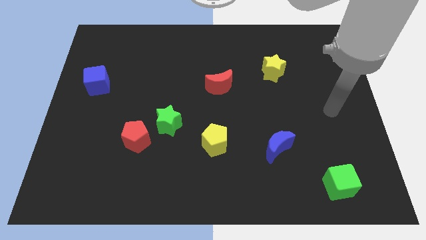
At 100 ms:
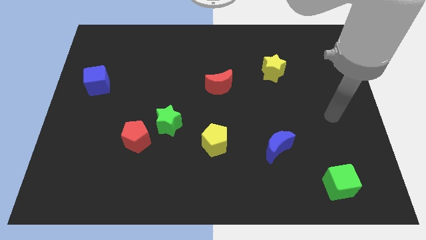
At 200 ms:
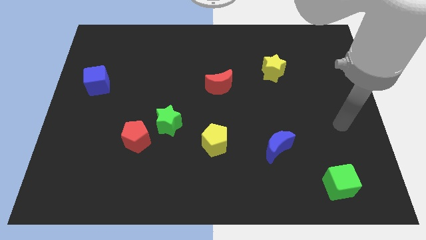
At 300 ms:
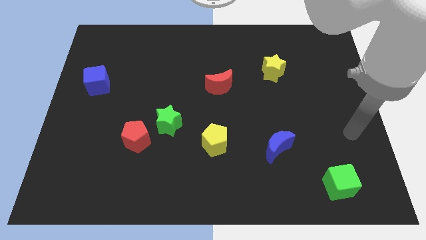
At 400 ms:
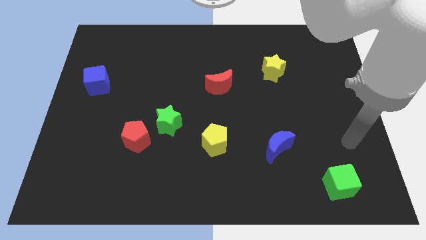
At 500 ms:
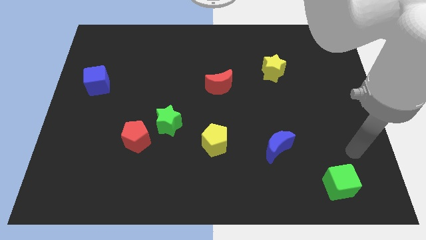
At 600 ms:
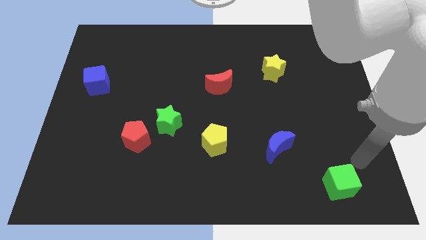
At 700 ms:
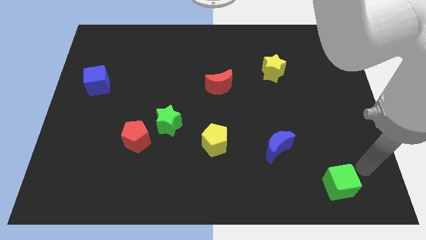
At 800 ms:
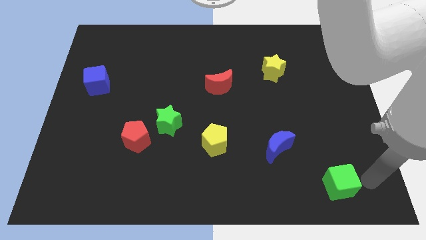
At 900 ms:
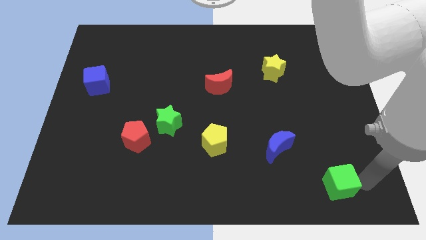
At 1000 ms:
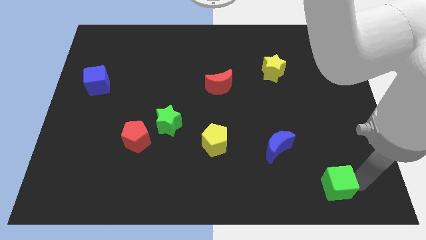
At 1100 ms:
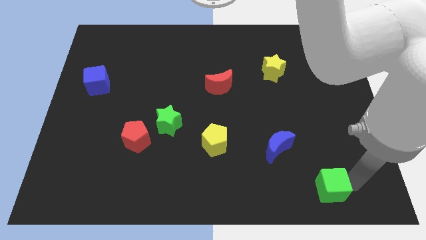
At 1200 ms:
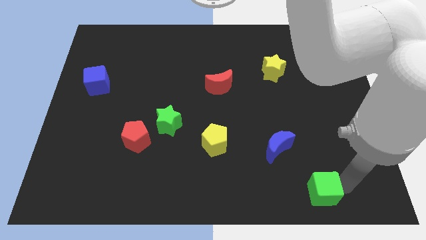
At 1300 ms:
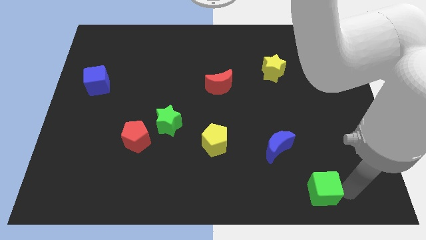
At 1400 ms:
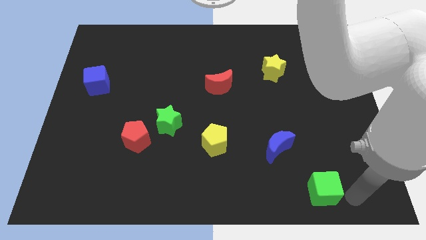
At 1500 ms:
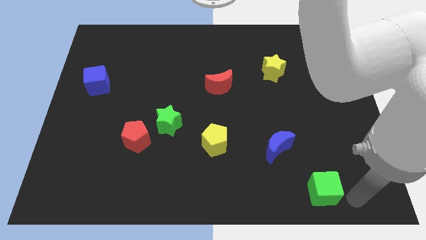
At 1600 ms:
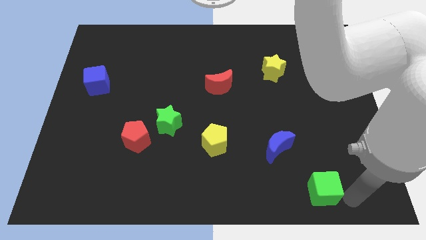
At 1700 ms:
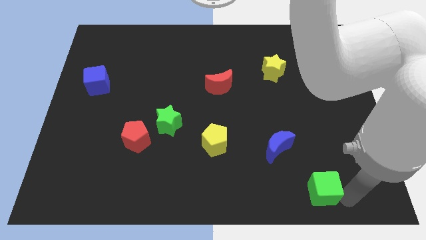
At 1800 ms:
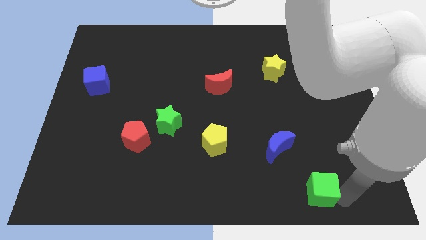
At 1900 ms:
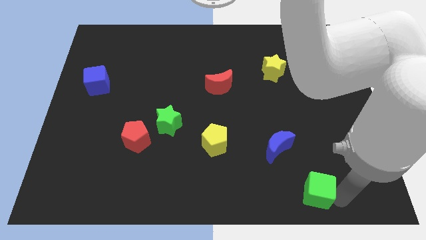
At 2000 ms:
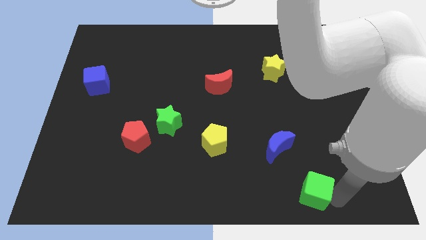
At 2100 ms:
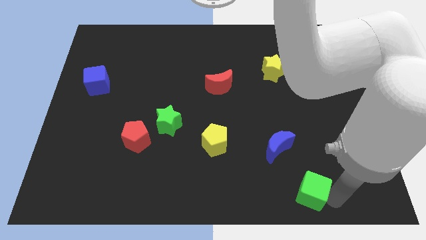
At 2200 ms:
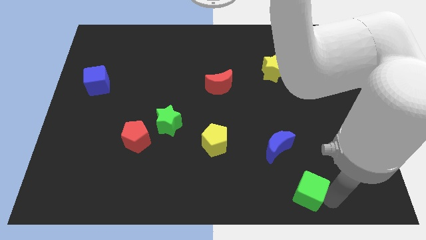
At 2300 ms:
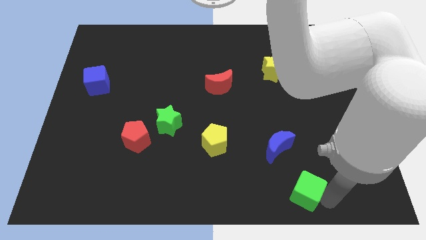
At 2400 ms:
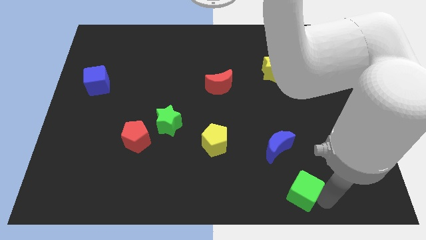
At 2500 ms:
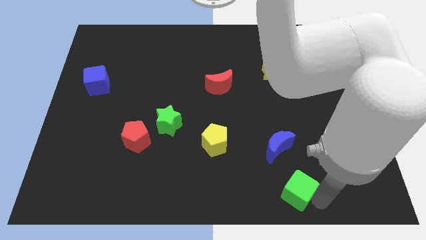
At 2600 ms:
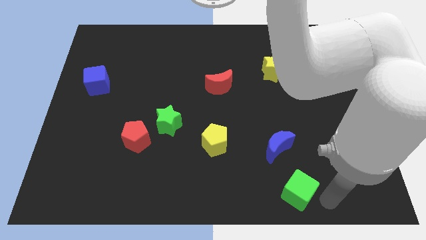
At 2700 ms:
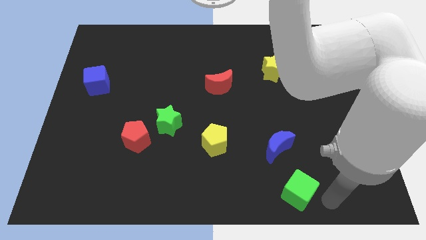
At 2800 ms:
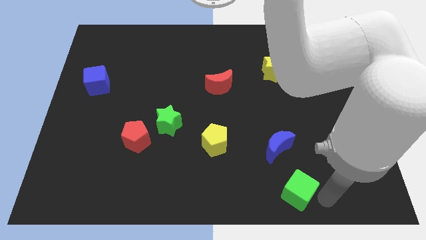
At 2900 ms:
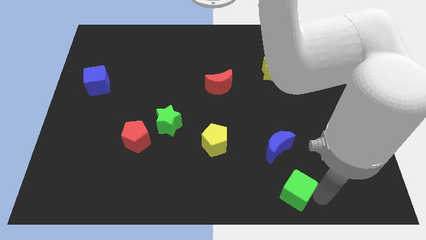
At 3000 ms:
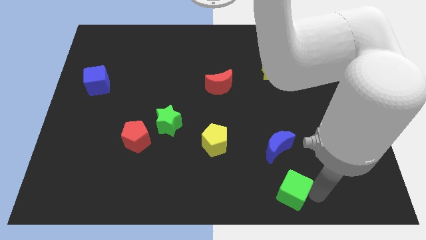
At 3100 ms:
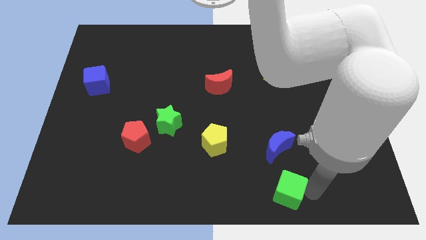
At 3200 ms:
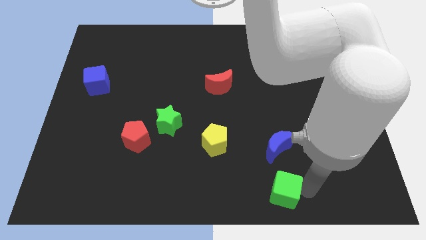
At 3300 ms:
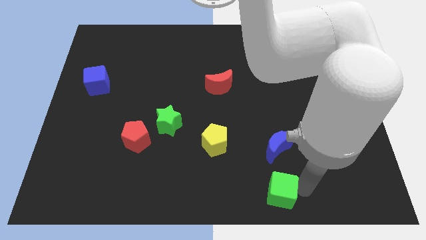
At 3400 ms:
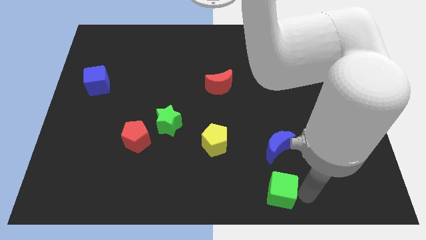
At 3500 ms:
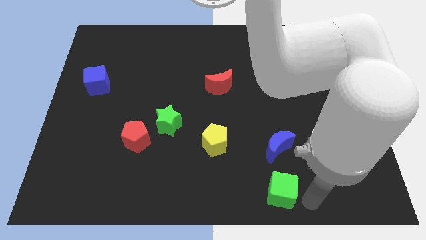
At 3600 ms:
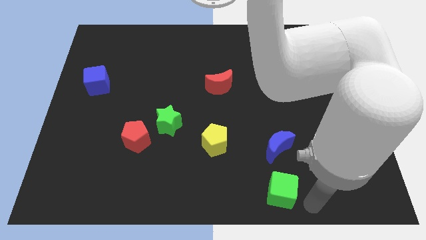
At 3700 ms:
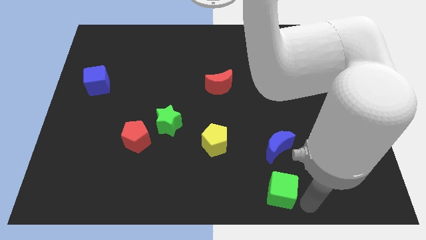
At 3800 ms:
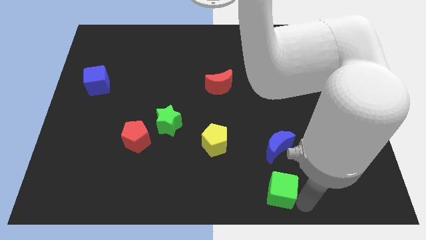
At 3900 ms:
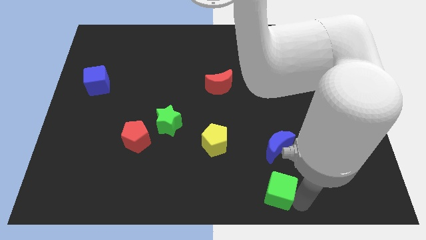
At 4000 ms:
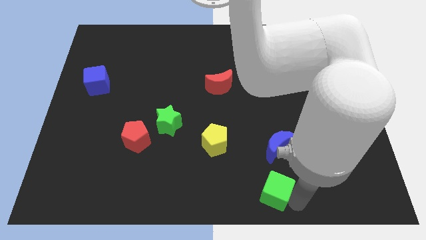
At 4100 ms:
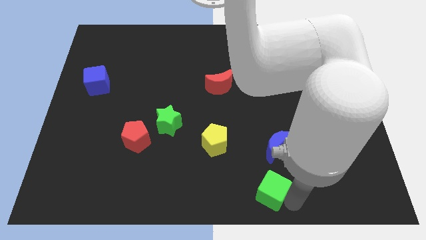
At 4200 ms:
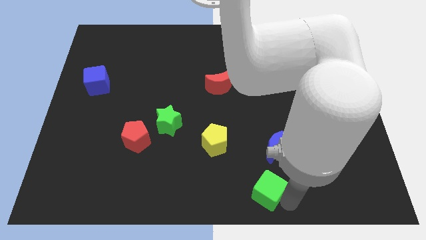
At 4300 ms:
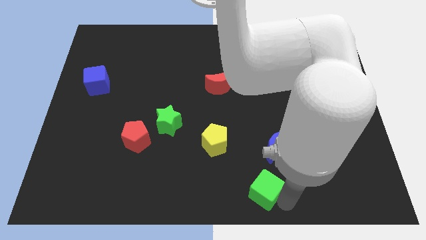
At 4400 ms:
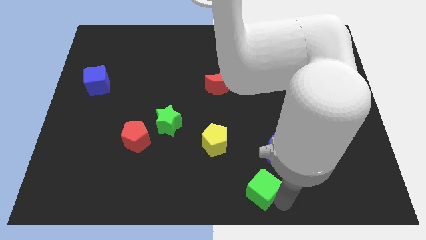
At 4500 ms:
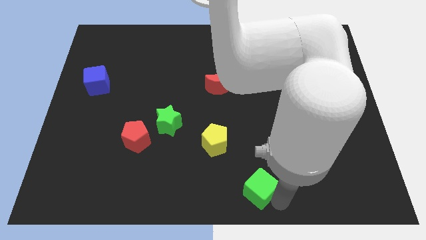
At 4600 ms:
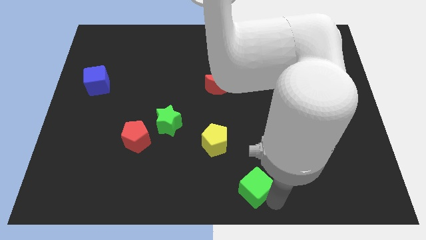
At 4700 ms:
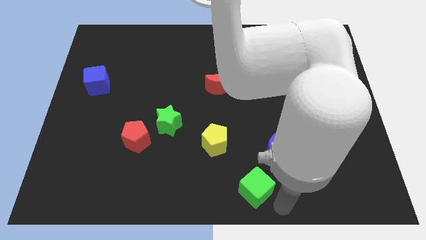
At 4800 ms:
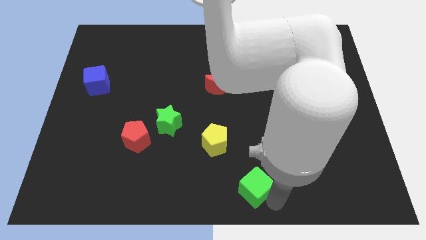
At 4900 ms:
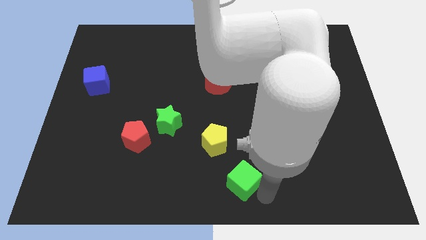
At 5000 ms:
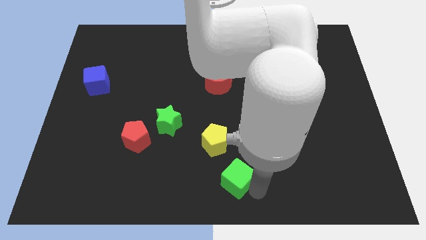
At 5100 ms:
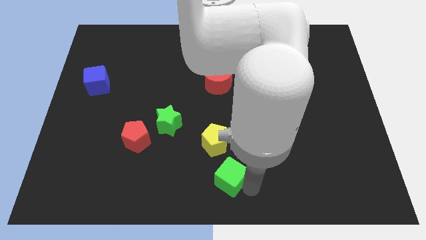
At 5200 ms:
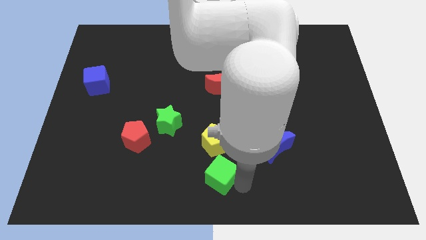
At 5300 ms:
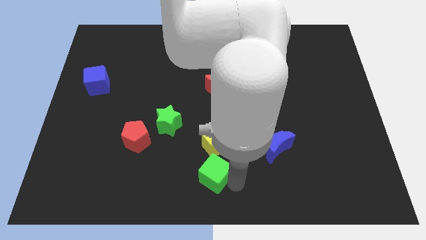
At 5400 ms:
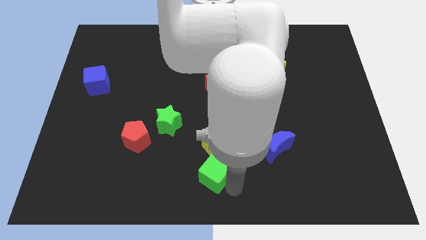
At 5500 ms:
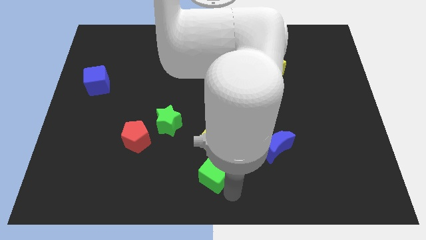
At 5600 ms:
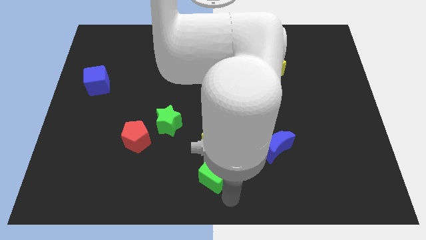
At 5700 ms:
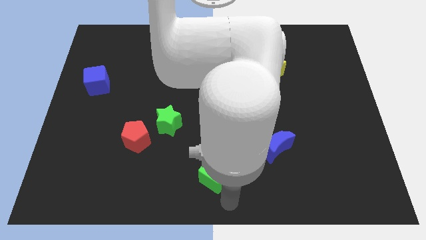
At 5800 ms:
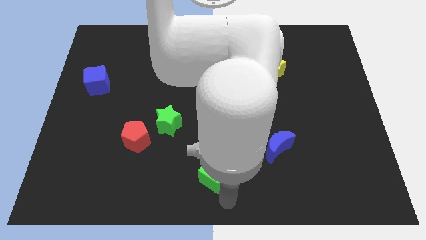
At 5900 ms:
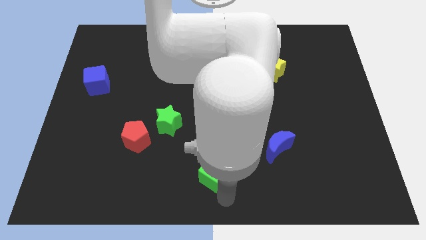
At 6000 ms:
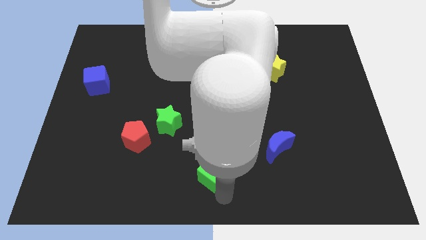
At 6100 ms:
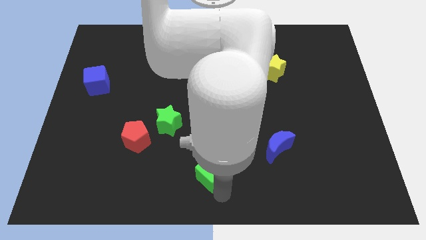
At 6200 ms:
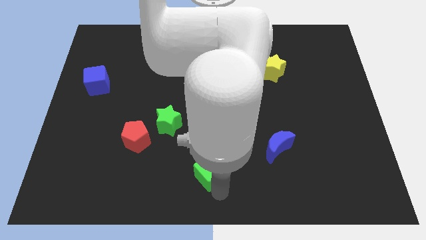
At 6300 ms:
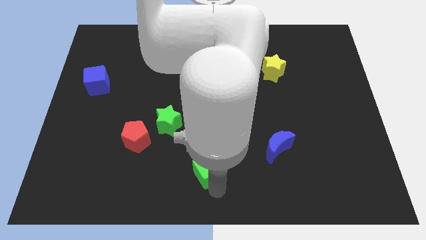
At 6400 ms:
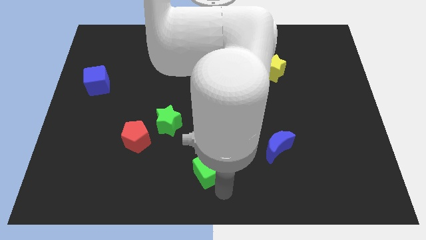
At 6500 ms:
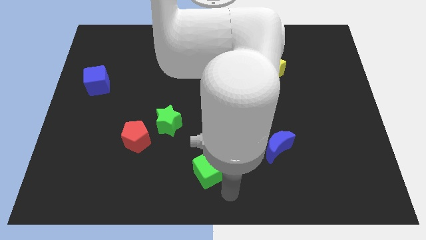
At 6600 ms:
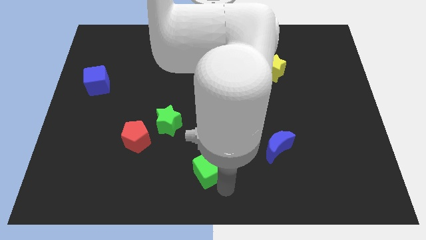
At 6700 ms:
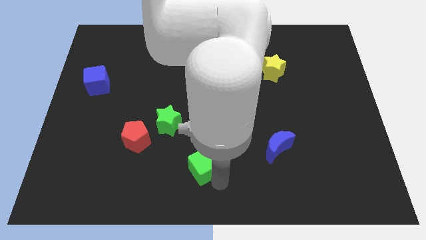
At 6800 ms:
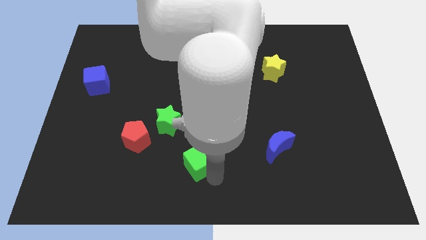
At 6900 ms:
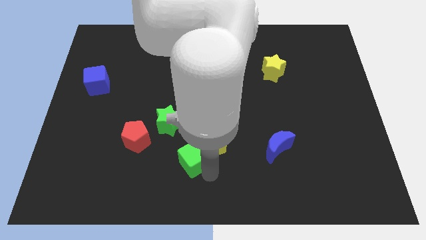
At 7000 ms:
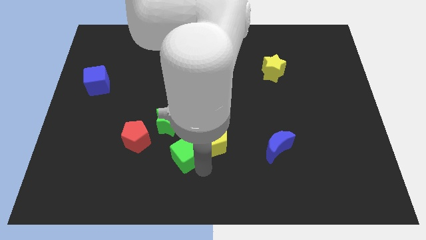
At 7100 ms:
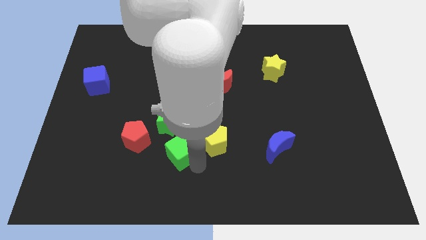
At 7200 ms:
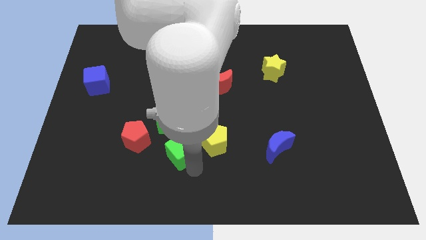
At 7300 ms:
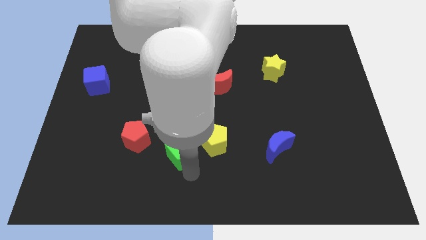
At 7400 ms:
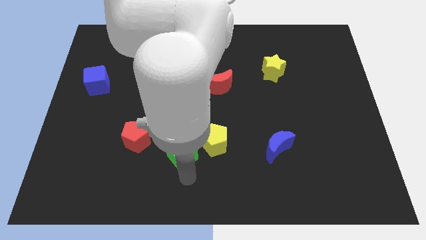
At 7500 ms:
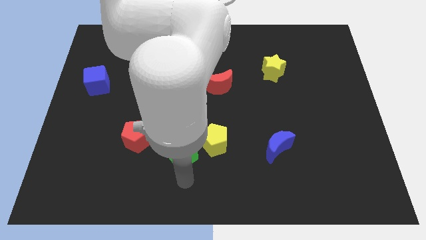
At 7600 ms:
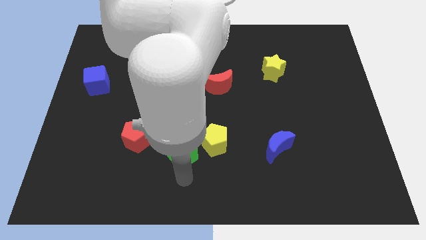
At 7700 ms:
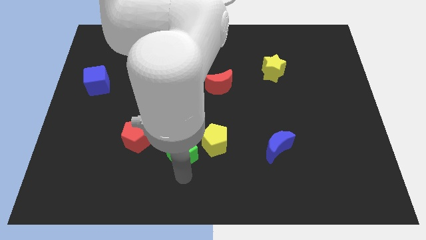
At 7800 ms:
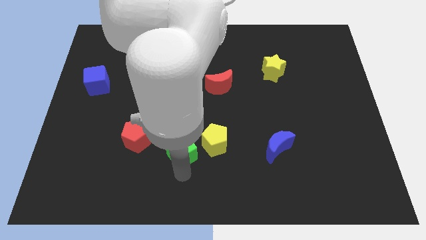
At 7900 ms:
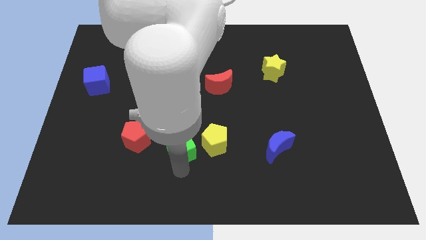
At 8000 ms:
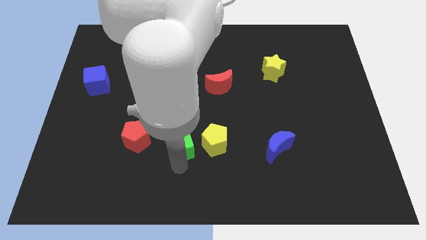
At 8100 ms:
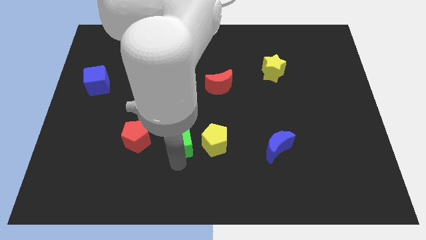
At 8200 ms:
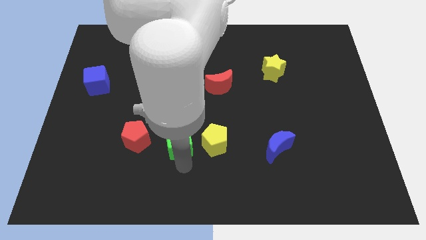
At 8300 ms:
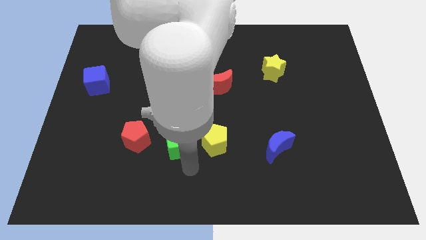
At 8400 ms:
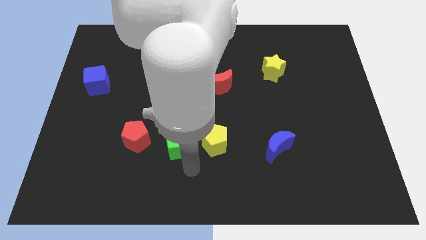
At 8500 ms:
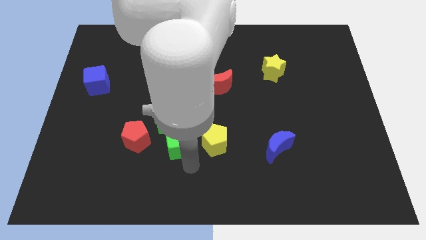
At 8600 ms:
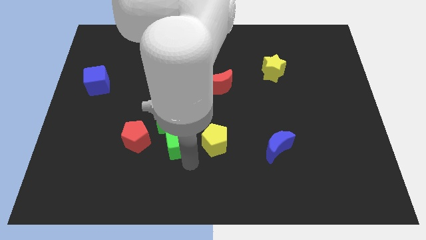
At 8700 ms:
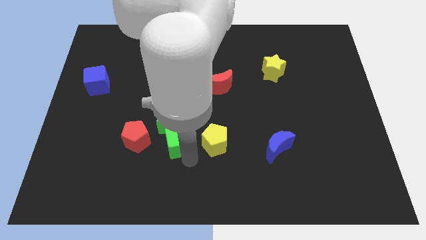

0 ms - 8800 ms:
put the green cube close to the green star
